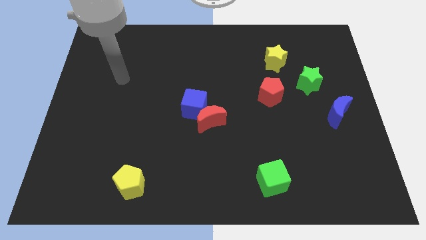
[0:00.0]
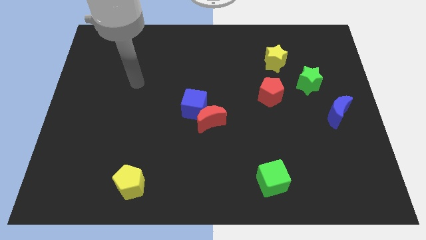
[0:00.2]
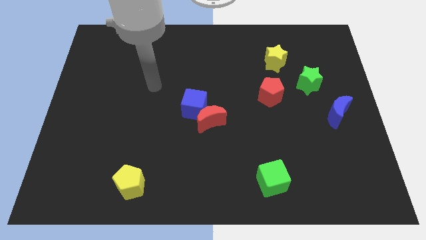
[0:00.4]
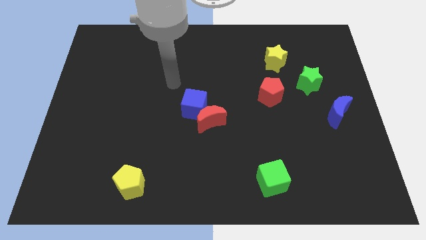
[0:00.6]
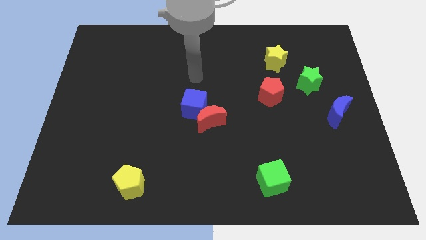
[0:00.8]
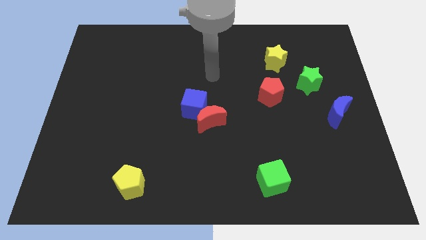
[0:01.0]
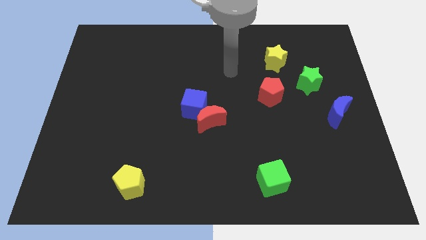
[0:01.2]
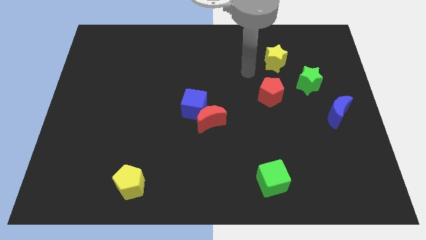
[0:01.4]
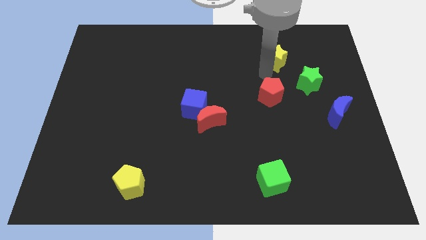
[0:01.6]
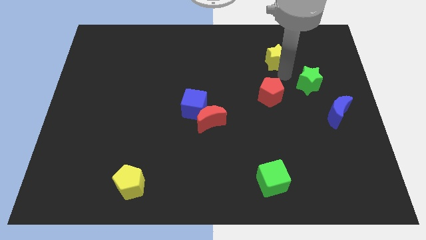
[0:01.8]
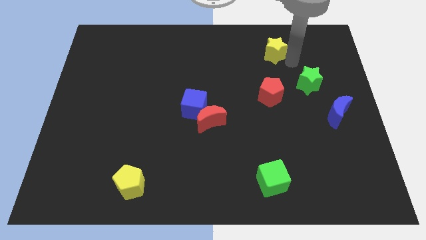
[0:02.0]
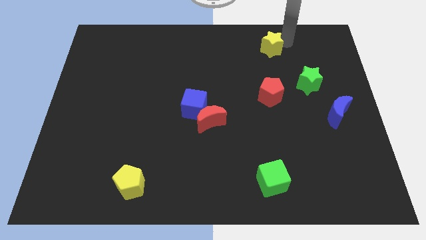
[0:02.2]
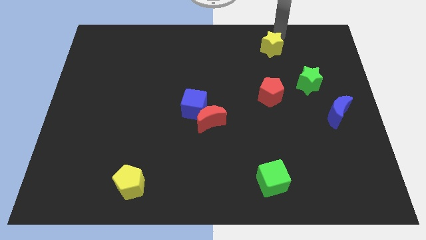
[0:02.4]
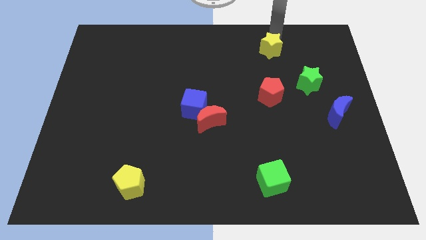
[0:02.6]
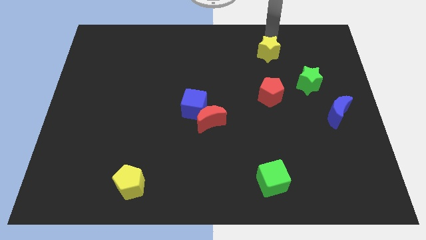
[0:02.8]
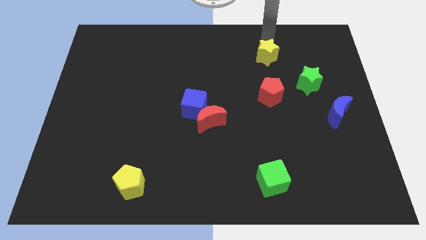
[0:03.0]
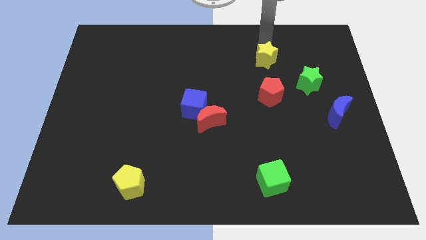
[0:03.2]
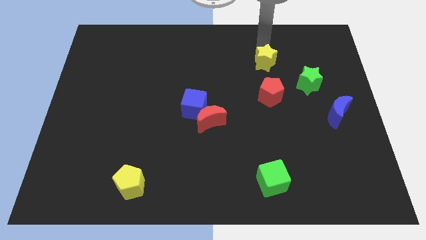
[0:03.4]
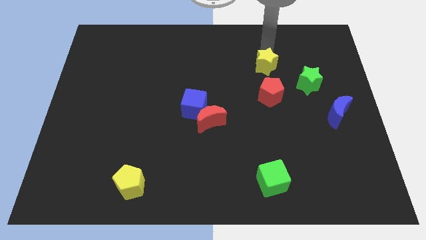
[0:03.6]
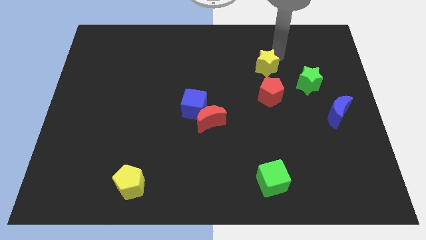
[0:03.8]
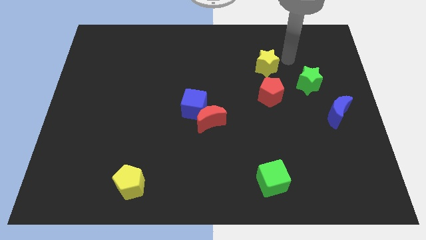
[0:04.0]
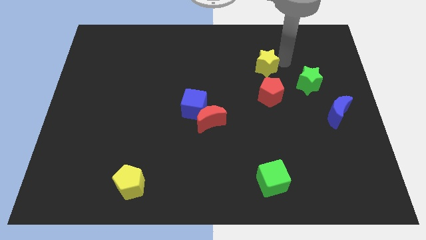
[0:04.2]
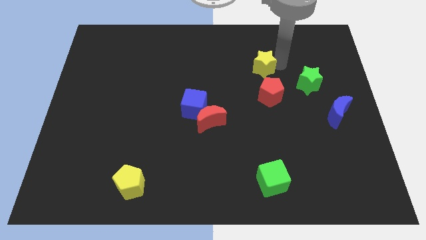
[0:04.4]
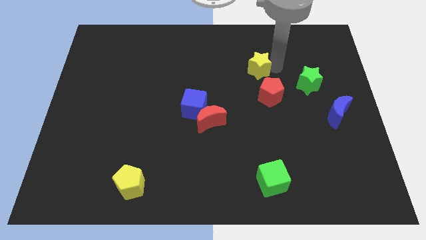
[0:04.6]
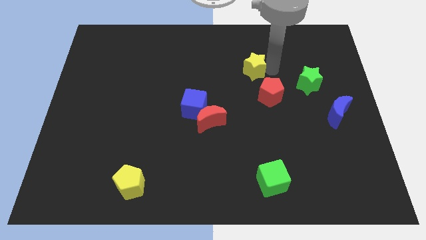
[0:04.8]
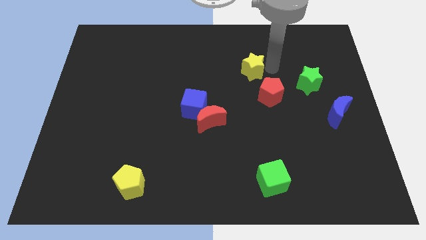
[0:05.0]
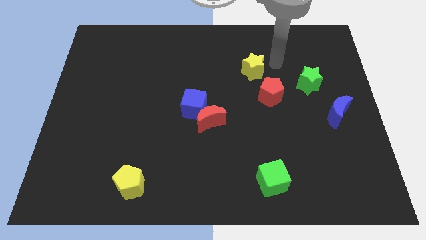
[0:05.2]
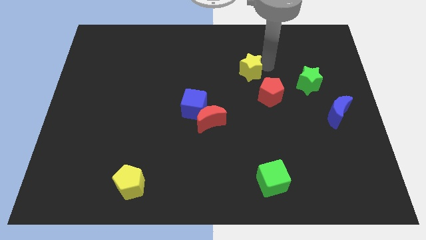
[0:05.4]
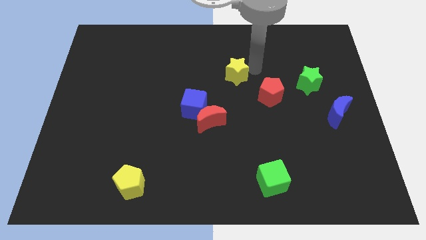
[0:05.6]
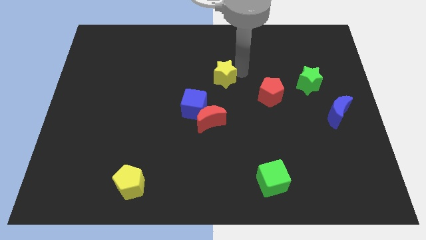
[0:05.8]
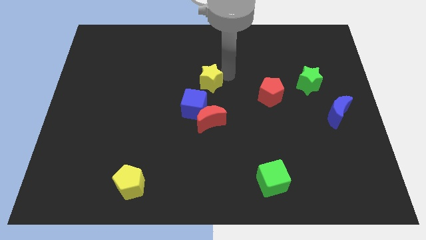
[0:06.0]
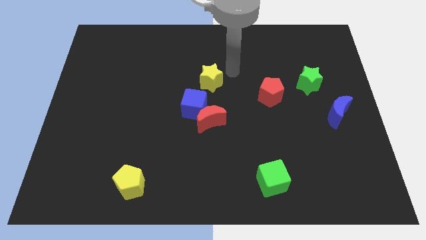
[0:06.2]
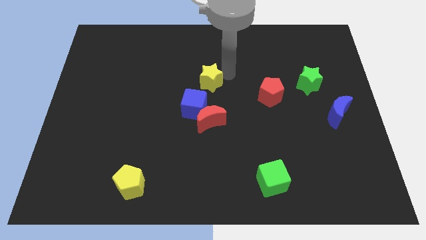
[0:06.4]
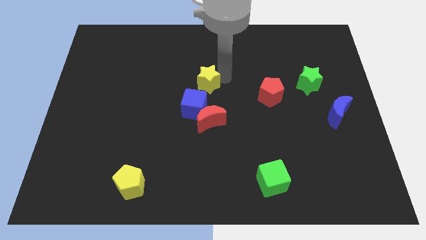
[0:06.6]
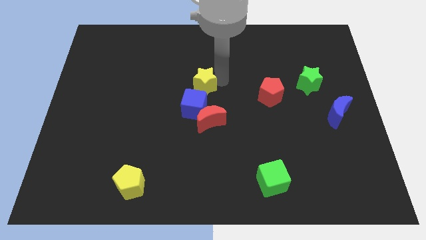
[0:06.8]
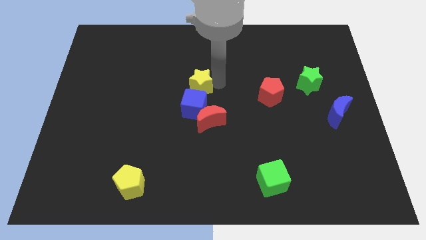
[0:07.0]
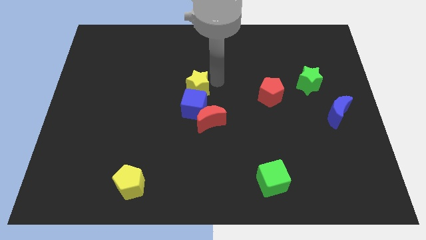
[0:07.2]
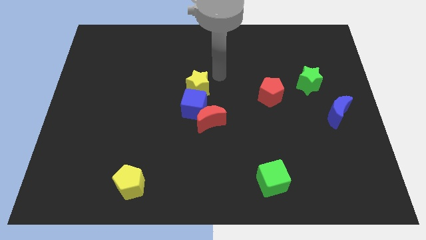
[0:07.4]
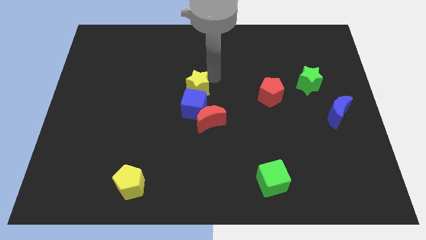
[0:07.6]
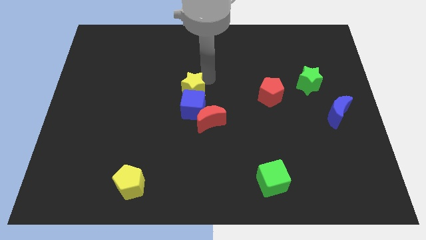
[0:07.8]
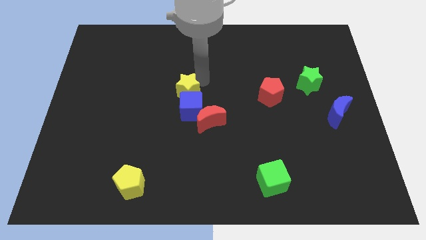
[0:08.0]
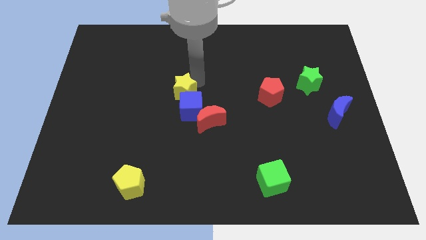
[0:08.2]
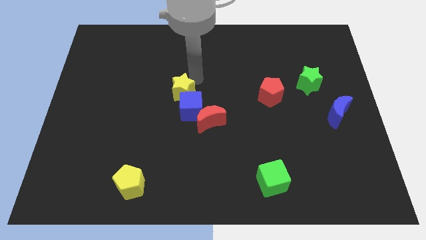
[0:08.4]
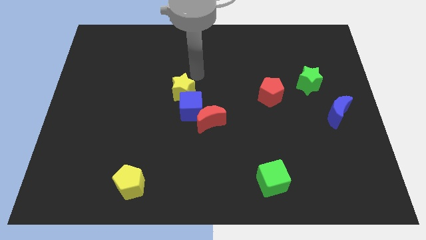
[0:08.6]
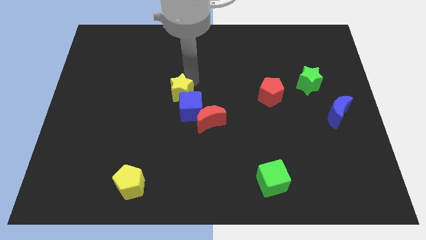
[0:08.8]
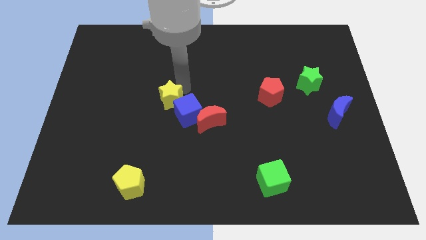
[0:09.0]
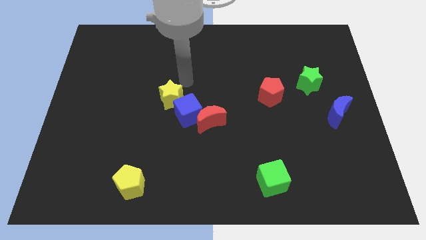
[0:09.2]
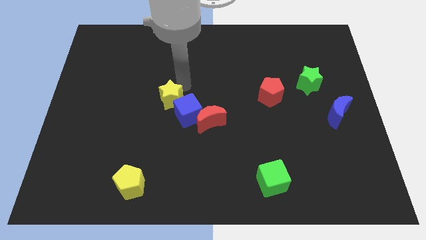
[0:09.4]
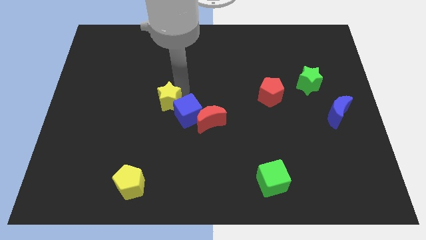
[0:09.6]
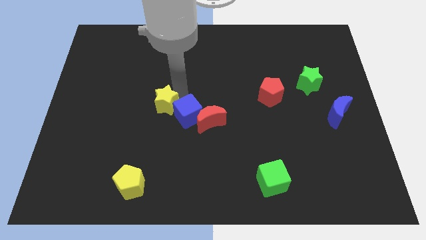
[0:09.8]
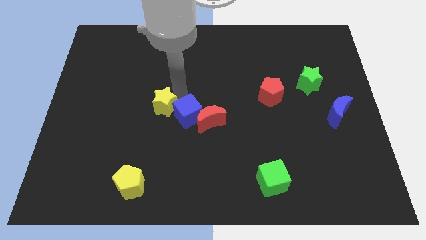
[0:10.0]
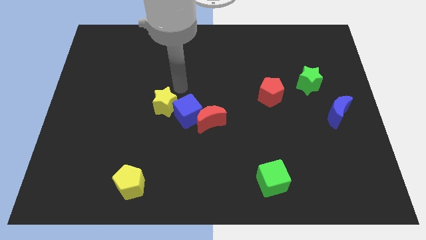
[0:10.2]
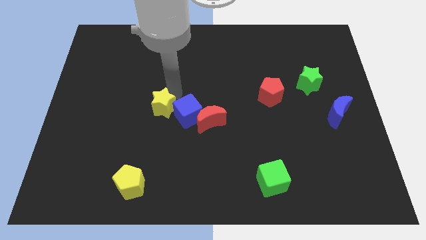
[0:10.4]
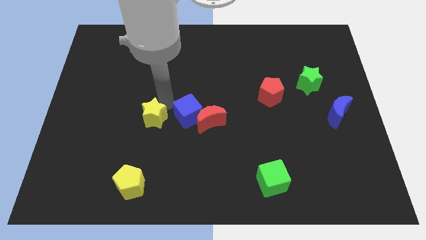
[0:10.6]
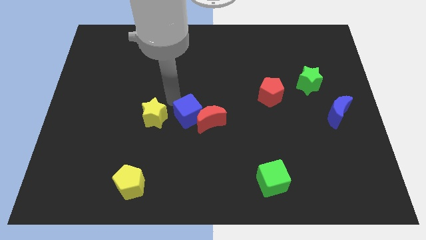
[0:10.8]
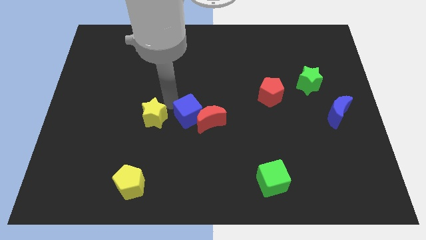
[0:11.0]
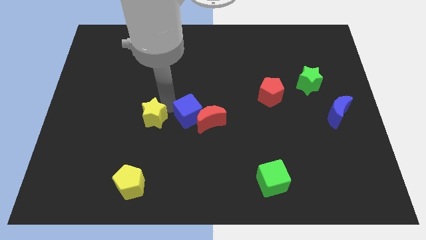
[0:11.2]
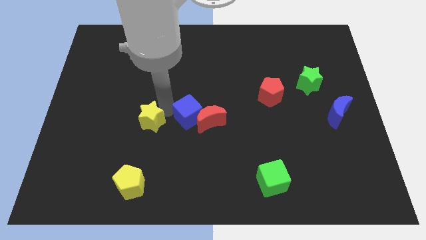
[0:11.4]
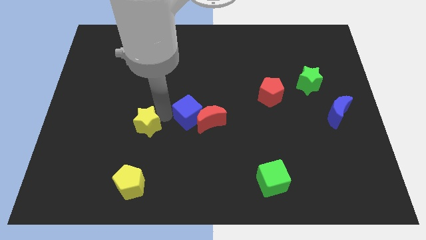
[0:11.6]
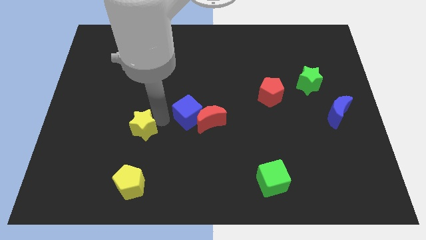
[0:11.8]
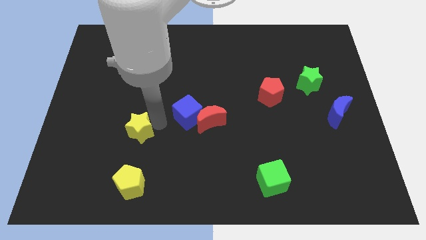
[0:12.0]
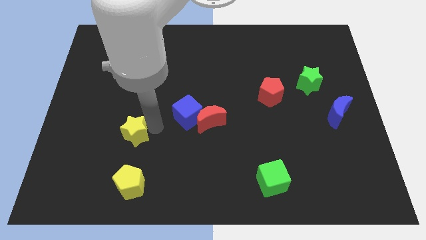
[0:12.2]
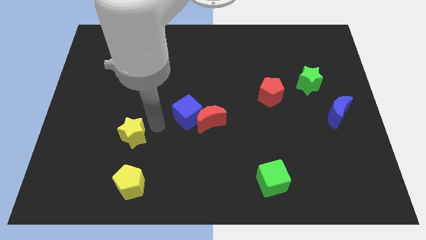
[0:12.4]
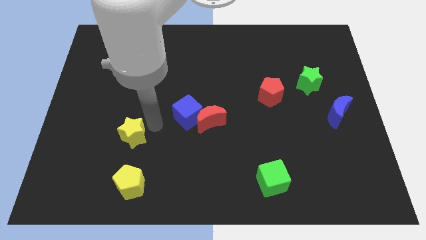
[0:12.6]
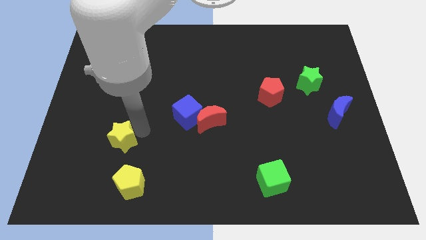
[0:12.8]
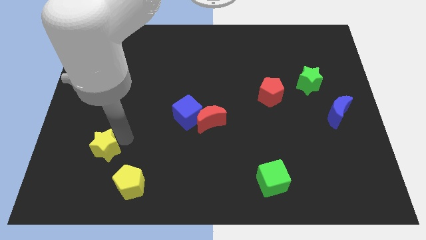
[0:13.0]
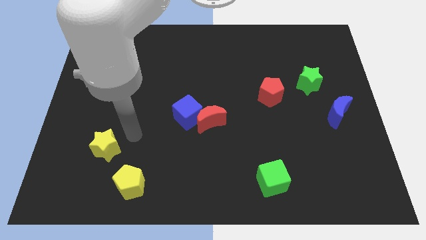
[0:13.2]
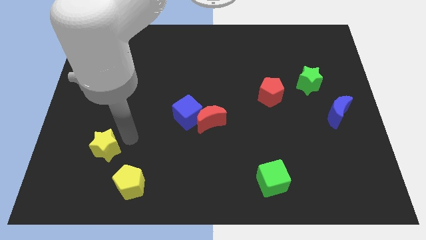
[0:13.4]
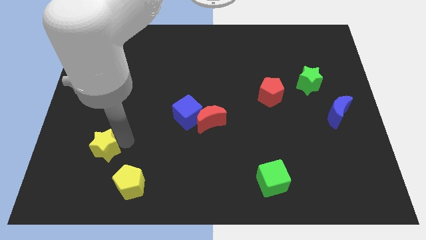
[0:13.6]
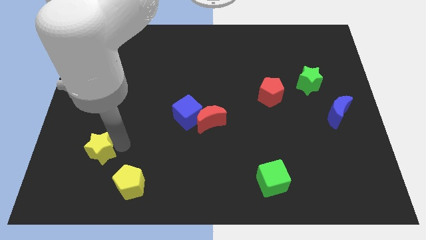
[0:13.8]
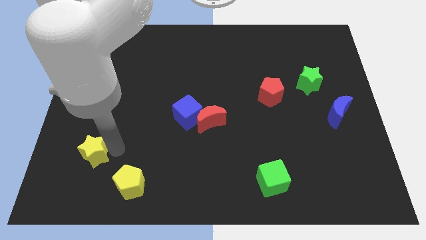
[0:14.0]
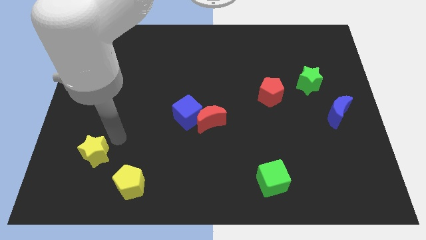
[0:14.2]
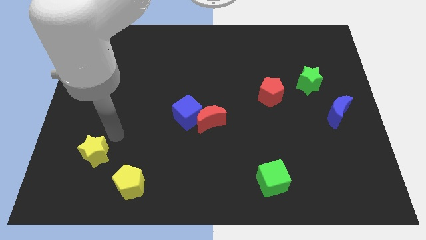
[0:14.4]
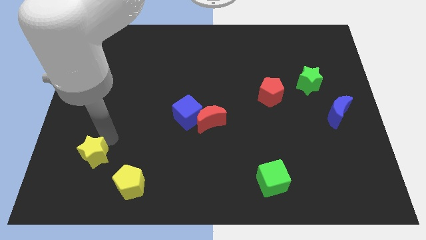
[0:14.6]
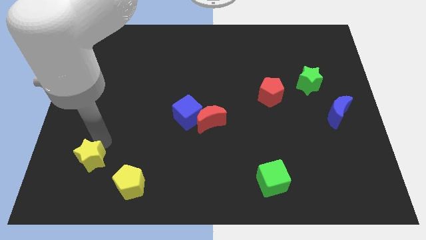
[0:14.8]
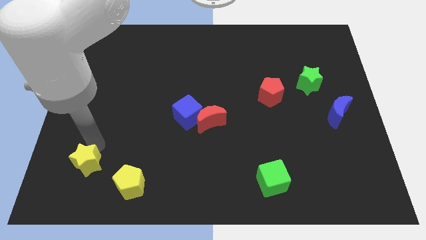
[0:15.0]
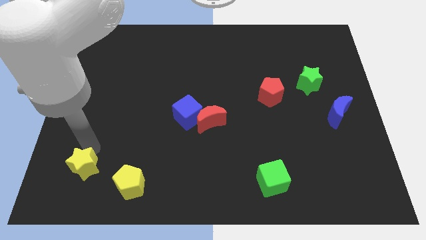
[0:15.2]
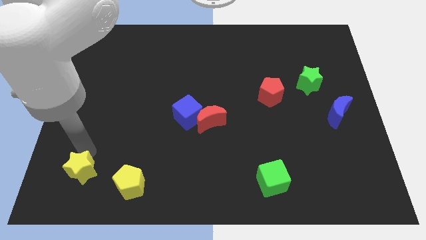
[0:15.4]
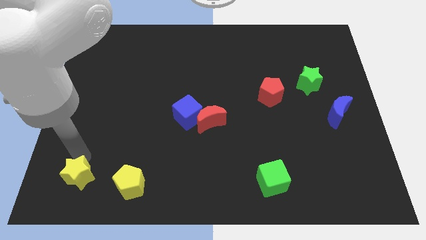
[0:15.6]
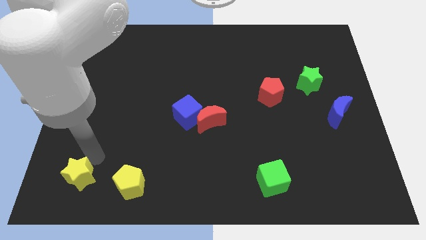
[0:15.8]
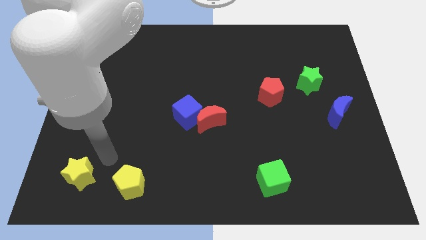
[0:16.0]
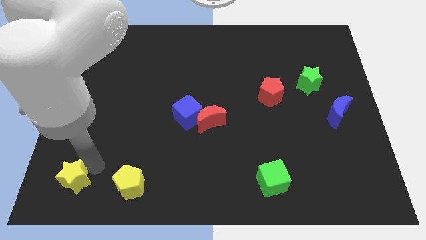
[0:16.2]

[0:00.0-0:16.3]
move the yellow star to the bottom left corner
